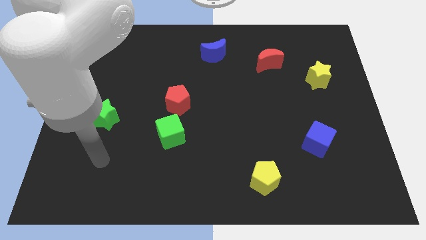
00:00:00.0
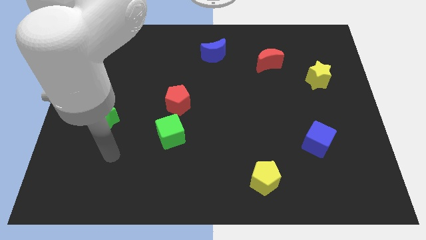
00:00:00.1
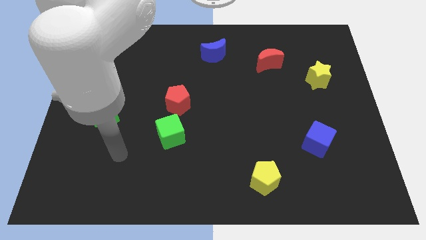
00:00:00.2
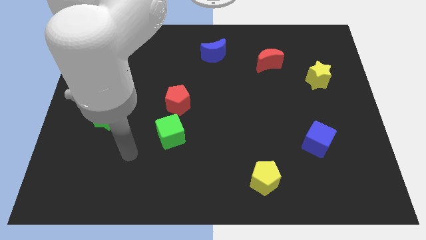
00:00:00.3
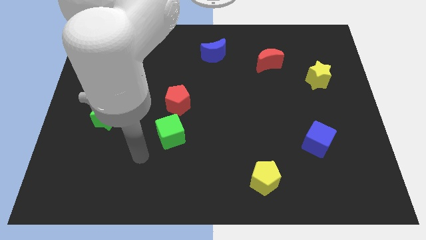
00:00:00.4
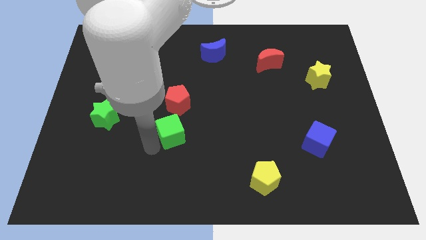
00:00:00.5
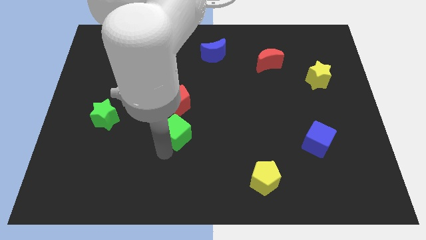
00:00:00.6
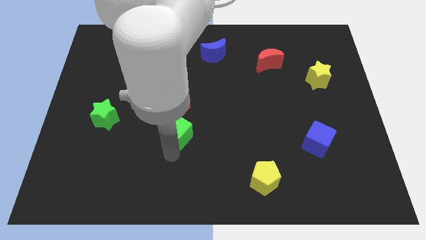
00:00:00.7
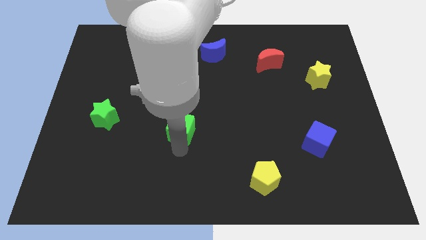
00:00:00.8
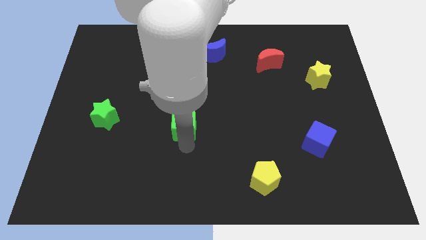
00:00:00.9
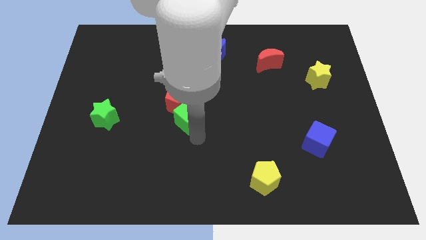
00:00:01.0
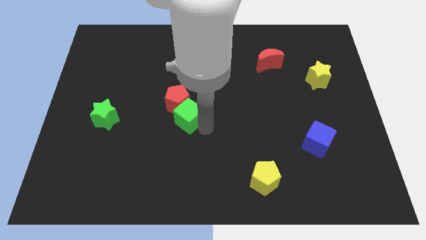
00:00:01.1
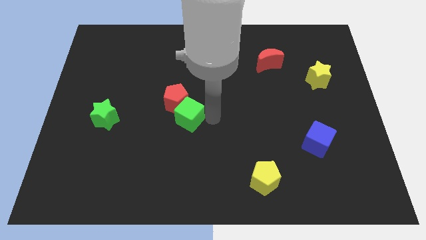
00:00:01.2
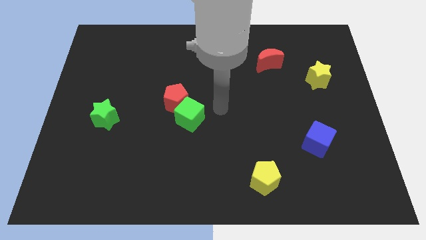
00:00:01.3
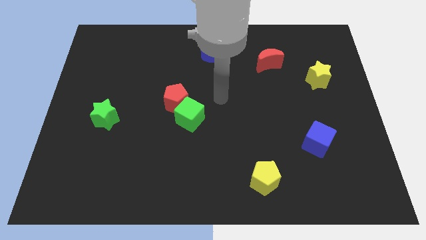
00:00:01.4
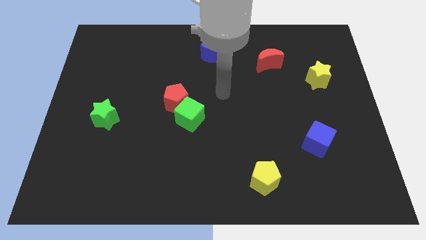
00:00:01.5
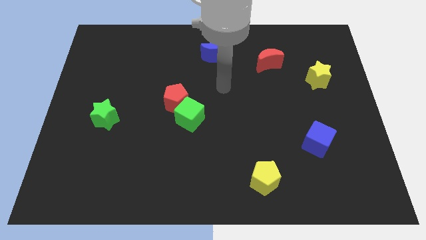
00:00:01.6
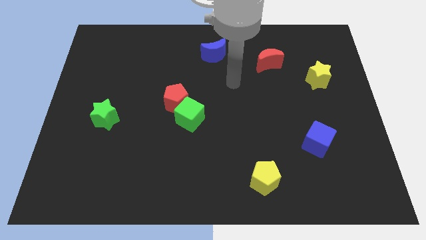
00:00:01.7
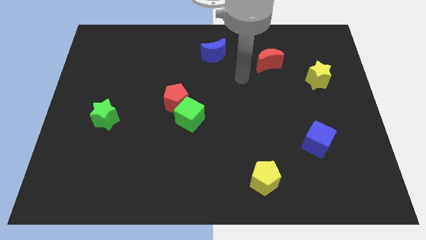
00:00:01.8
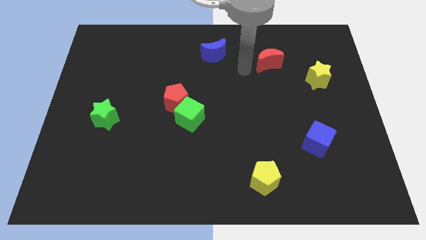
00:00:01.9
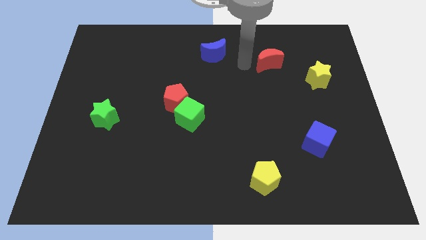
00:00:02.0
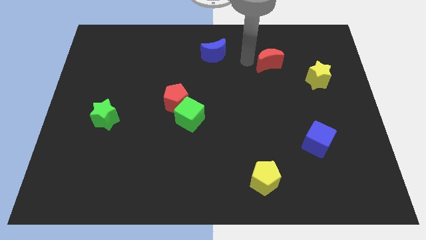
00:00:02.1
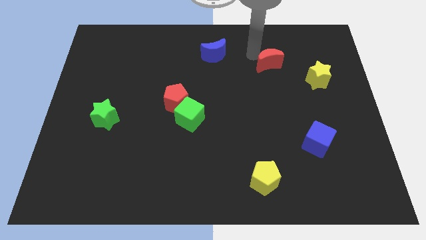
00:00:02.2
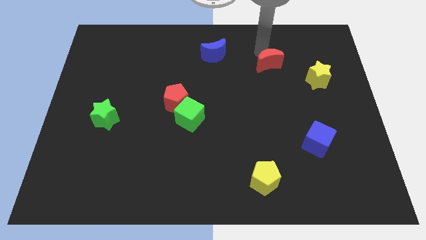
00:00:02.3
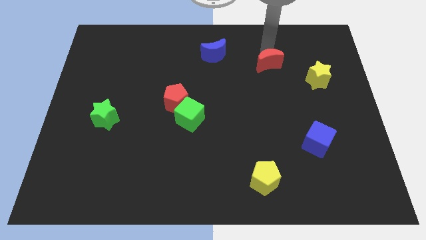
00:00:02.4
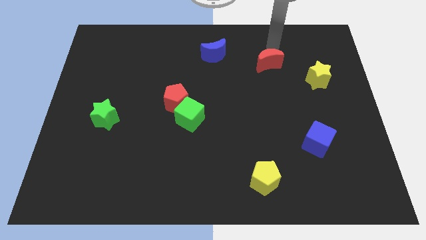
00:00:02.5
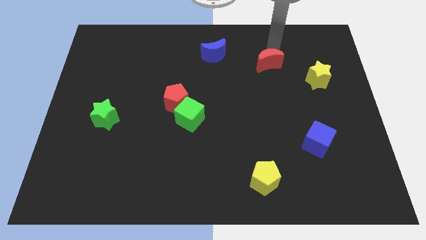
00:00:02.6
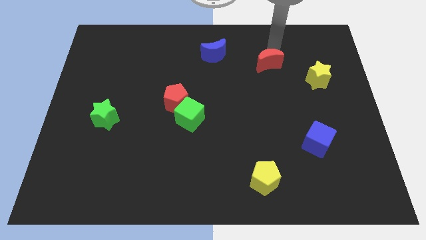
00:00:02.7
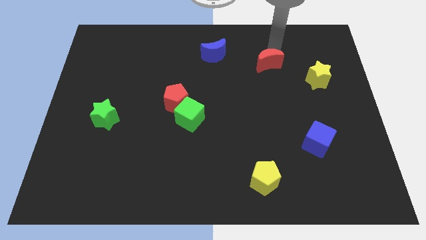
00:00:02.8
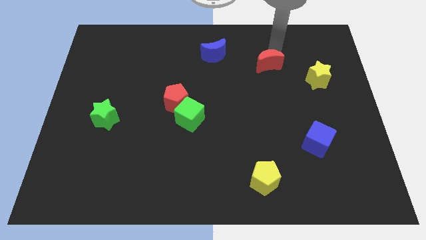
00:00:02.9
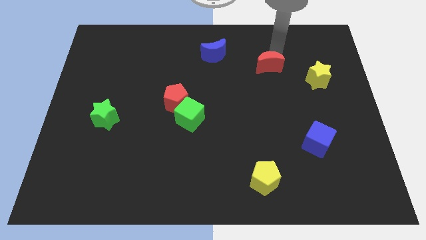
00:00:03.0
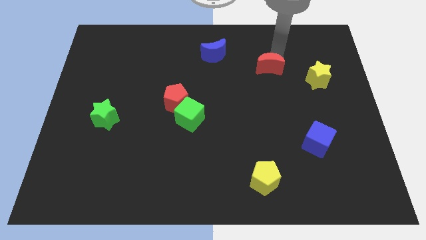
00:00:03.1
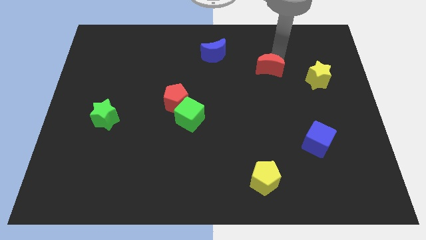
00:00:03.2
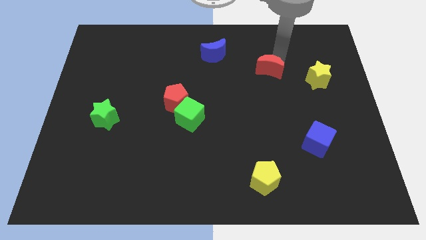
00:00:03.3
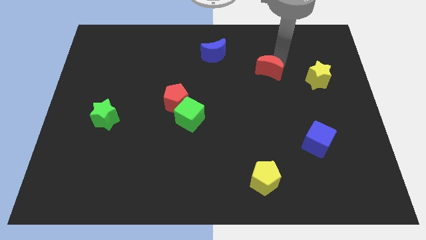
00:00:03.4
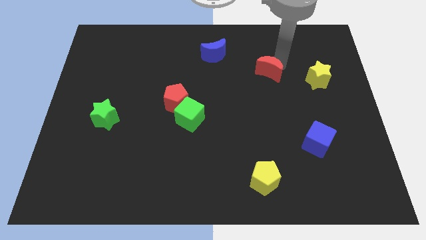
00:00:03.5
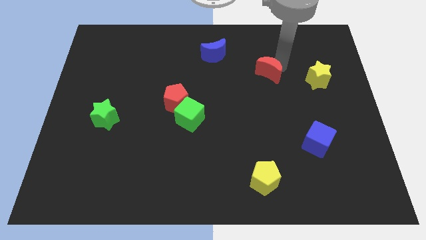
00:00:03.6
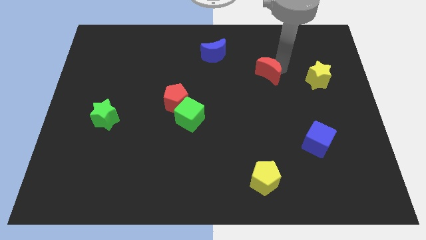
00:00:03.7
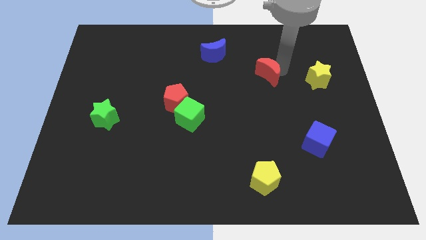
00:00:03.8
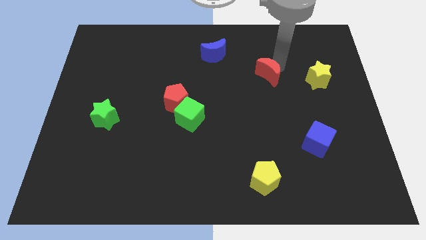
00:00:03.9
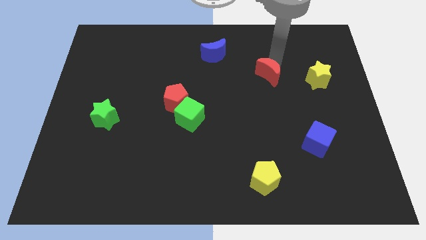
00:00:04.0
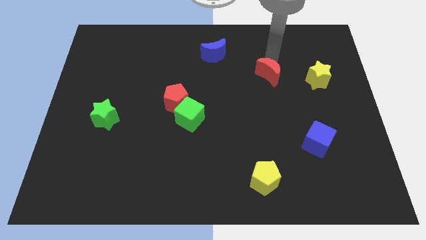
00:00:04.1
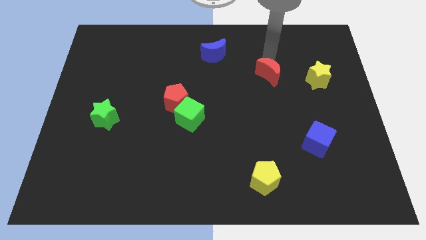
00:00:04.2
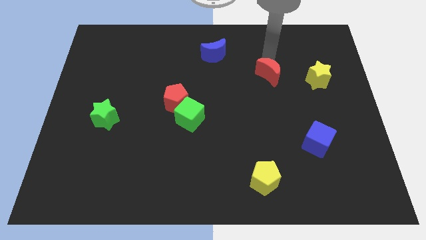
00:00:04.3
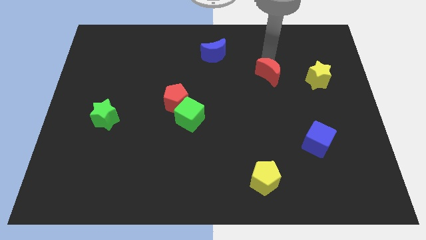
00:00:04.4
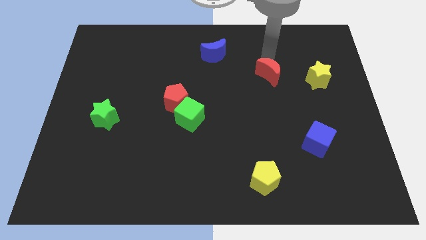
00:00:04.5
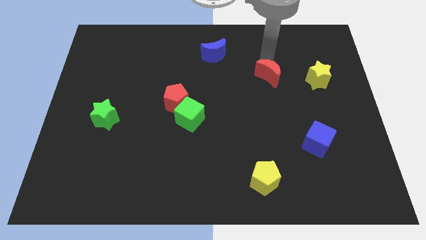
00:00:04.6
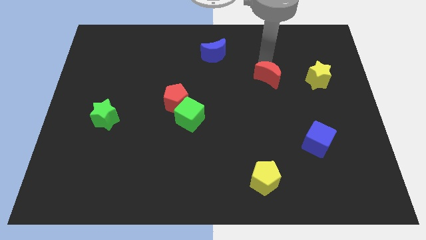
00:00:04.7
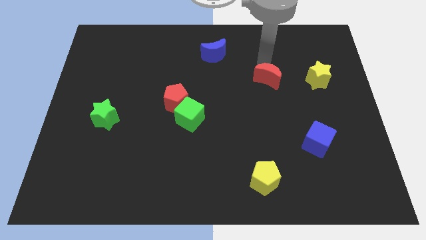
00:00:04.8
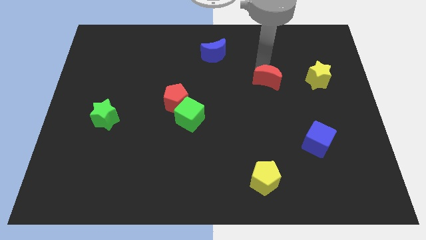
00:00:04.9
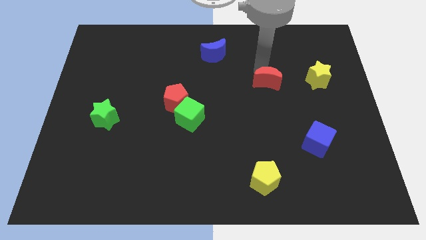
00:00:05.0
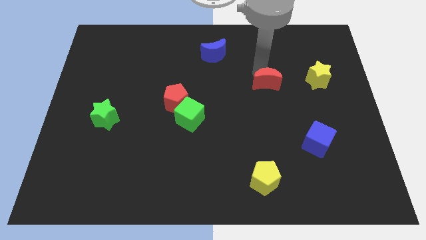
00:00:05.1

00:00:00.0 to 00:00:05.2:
move the red moon downwards a bit

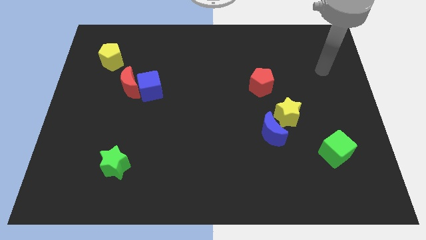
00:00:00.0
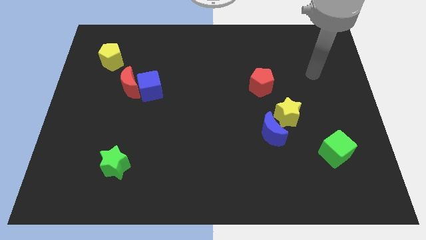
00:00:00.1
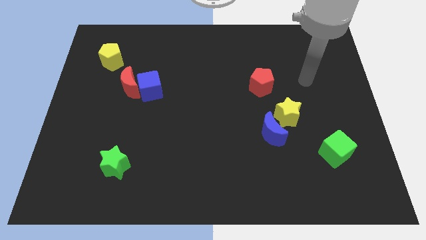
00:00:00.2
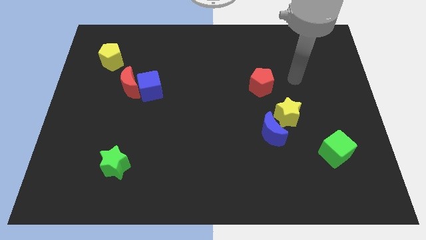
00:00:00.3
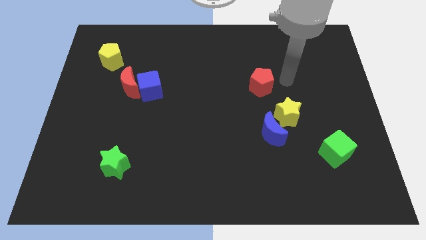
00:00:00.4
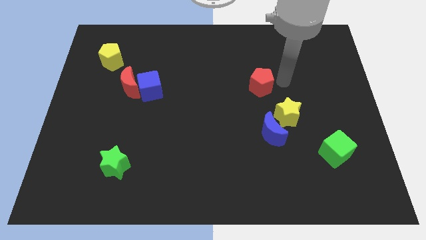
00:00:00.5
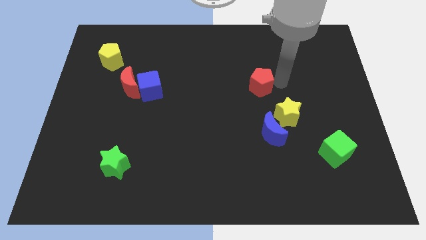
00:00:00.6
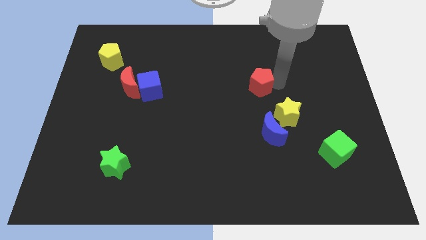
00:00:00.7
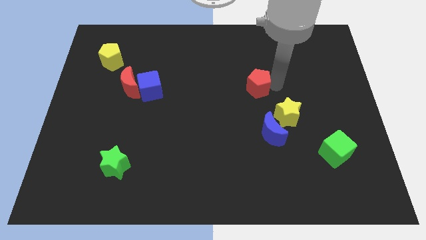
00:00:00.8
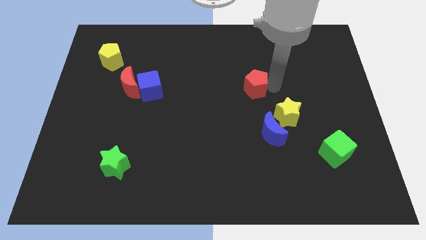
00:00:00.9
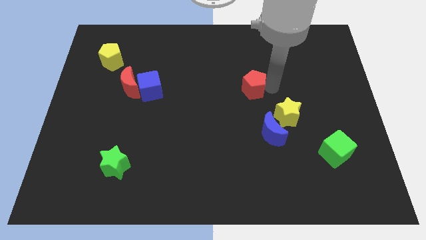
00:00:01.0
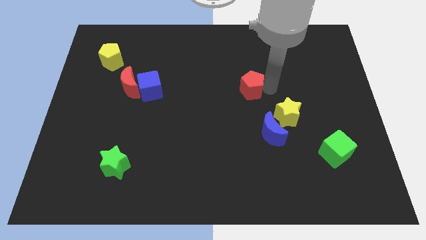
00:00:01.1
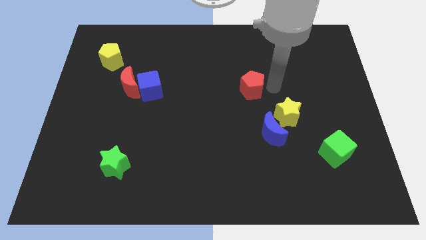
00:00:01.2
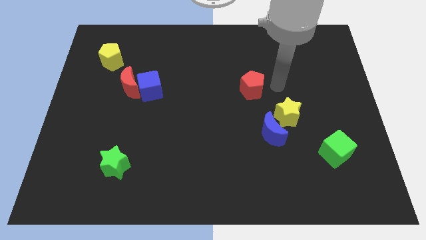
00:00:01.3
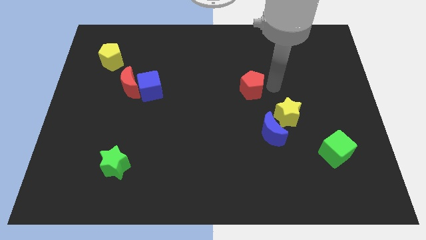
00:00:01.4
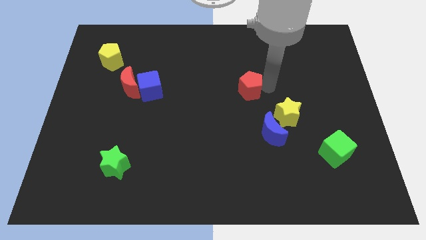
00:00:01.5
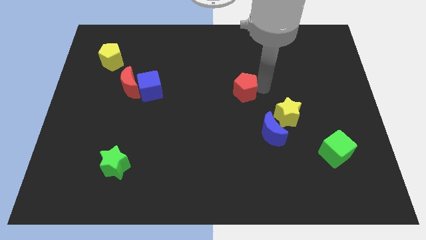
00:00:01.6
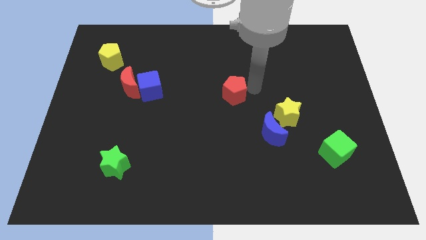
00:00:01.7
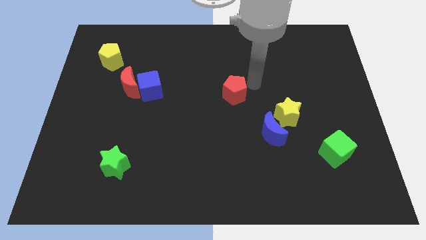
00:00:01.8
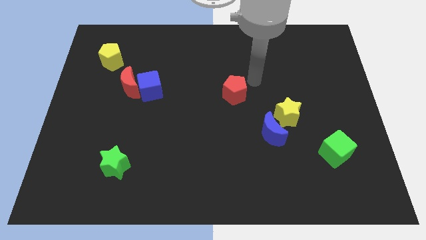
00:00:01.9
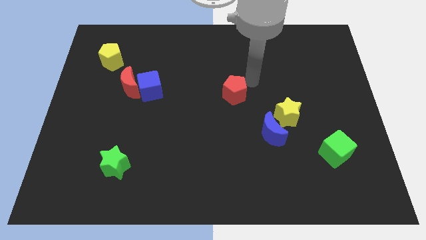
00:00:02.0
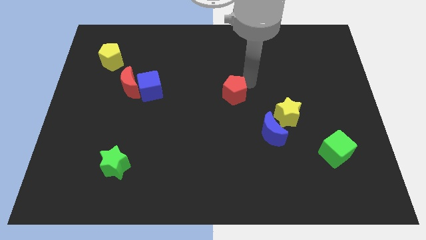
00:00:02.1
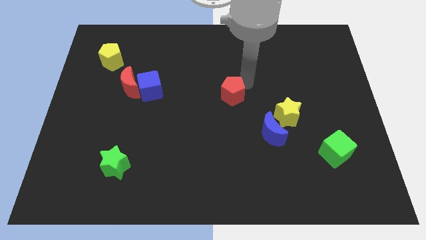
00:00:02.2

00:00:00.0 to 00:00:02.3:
slide the red pentagon a bit downwards and to the left

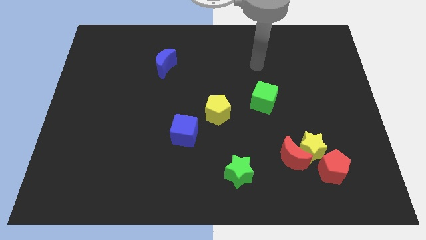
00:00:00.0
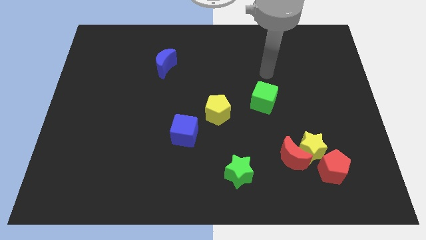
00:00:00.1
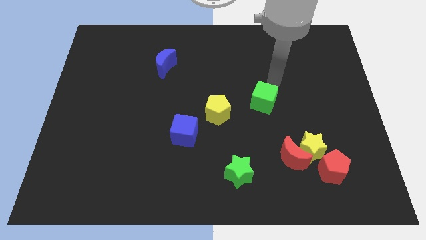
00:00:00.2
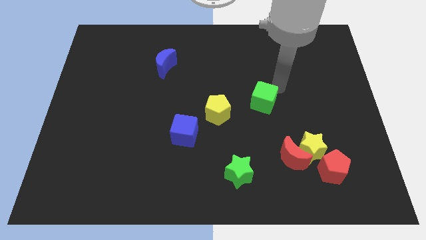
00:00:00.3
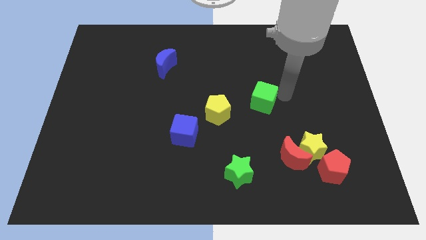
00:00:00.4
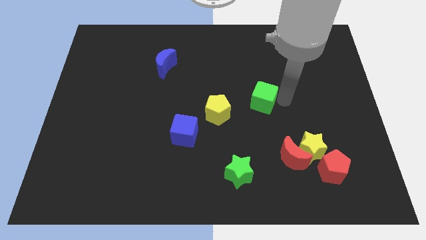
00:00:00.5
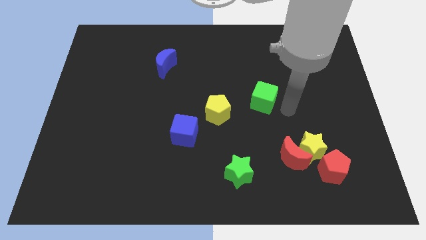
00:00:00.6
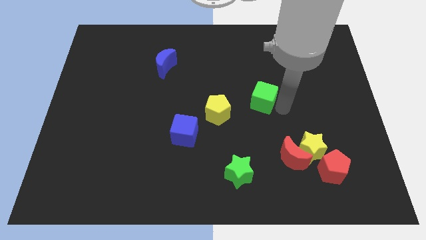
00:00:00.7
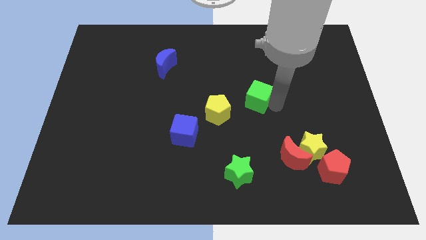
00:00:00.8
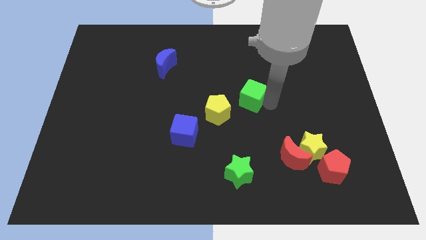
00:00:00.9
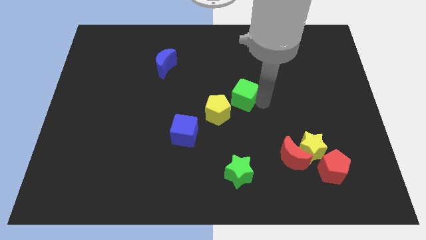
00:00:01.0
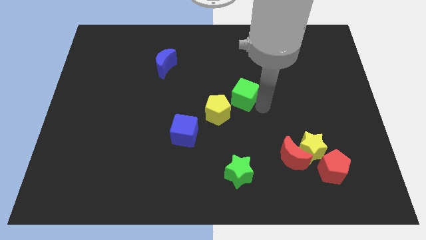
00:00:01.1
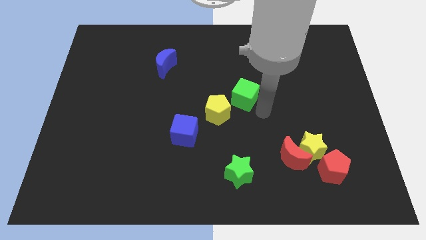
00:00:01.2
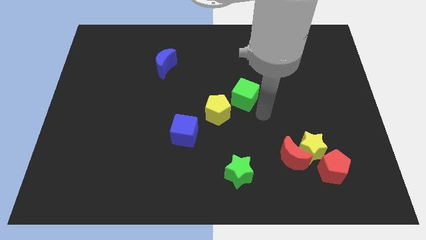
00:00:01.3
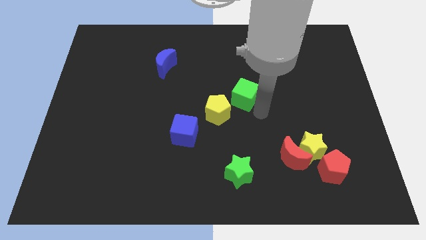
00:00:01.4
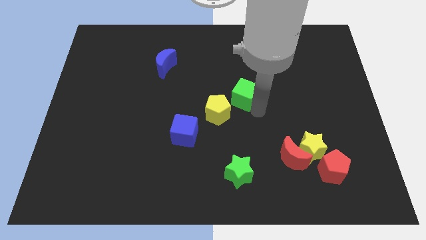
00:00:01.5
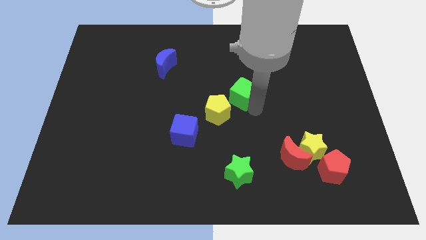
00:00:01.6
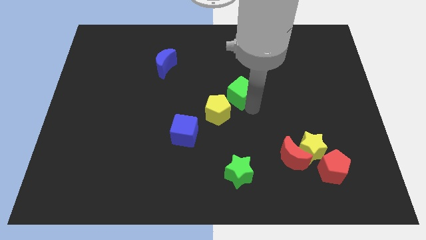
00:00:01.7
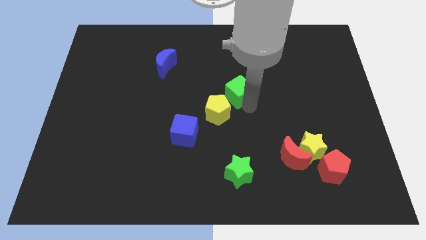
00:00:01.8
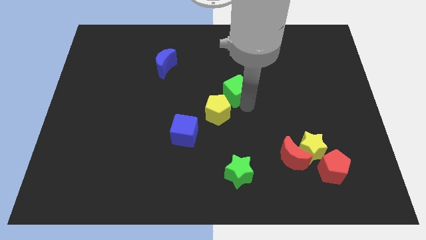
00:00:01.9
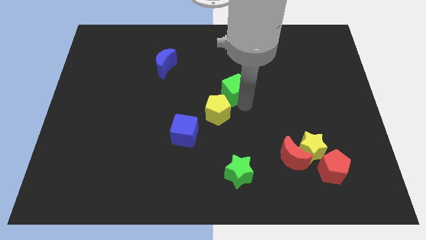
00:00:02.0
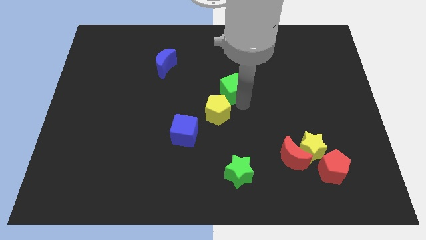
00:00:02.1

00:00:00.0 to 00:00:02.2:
slightly slide the green cube upwards and then left
